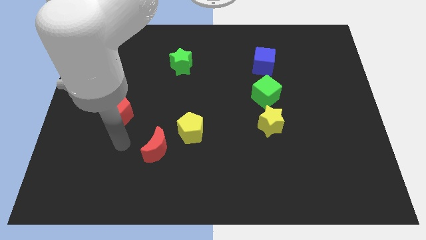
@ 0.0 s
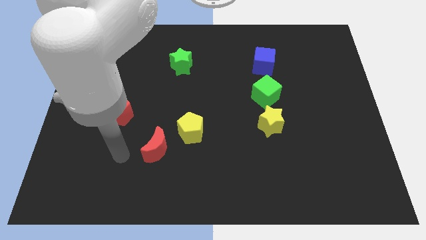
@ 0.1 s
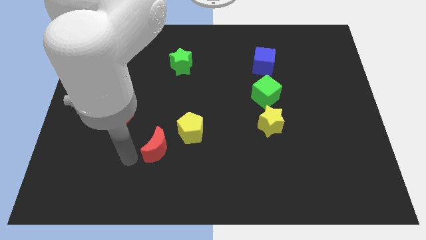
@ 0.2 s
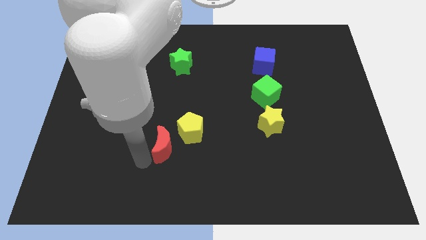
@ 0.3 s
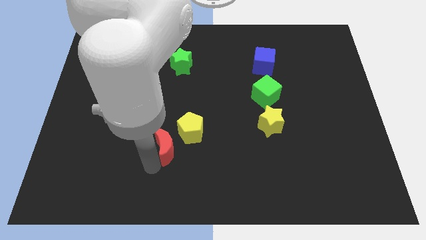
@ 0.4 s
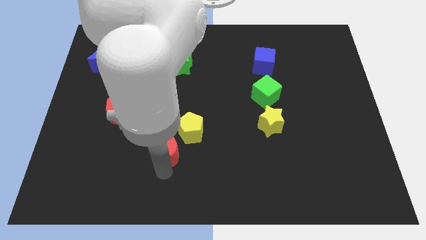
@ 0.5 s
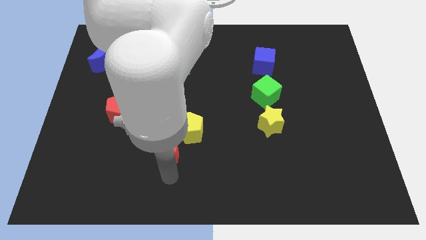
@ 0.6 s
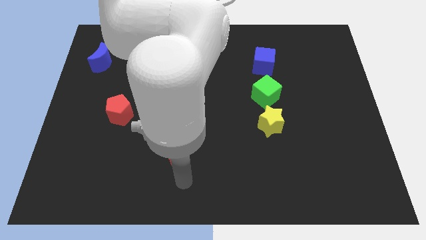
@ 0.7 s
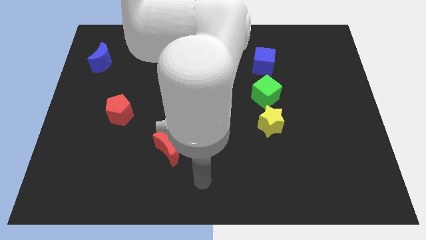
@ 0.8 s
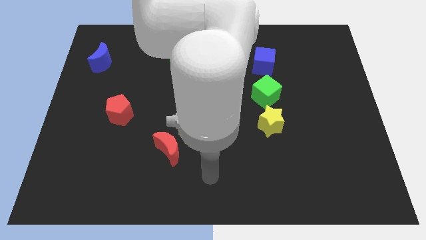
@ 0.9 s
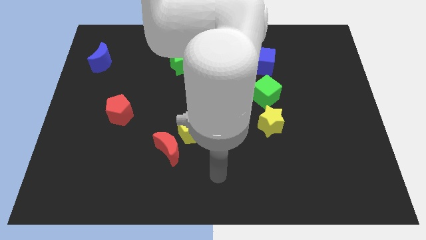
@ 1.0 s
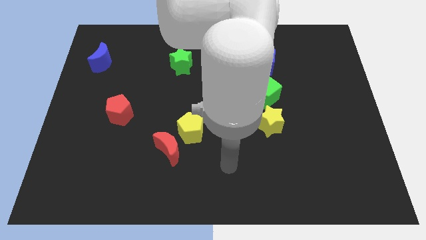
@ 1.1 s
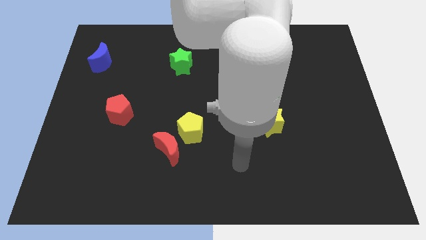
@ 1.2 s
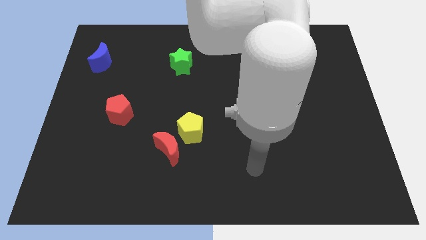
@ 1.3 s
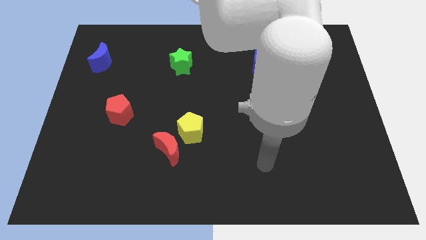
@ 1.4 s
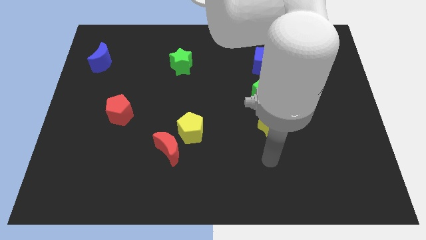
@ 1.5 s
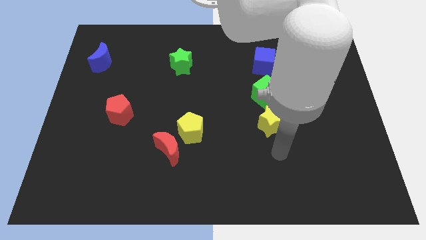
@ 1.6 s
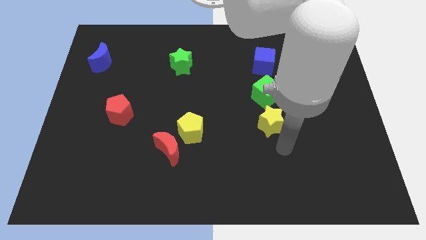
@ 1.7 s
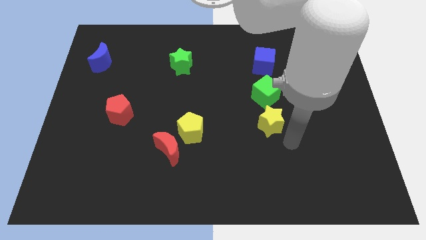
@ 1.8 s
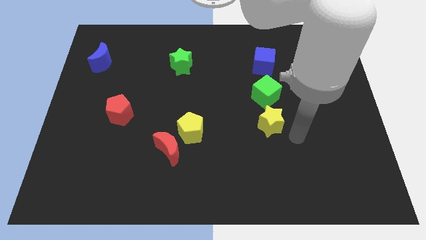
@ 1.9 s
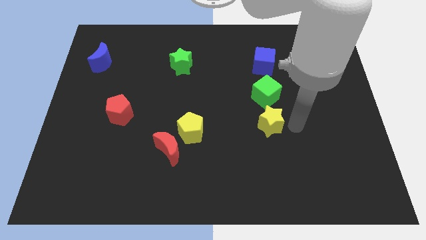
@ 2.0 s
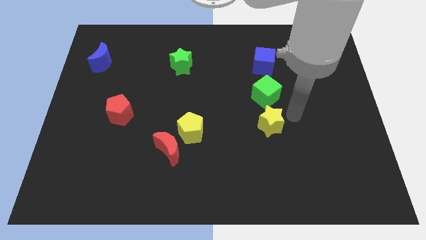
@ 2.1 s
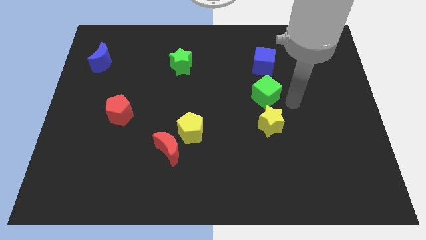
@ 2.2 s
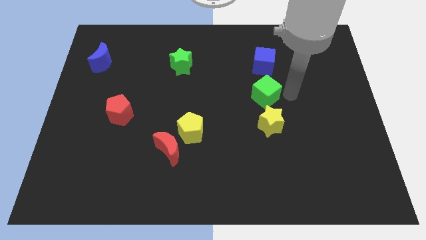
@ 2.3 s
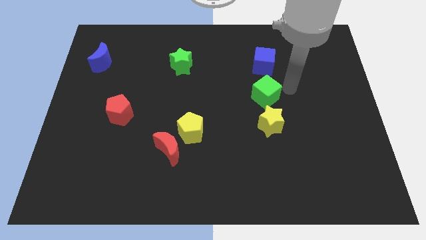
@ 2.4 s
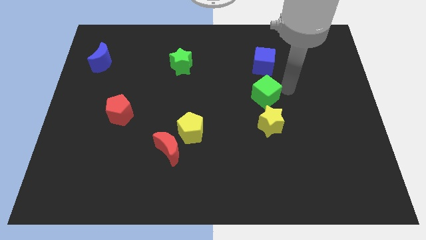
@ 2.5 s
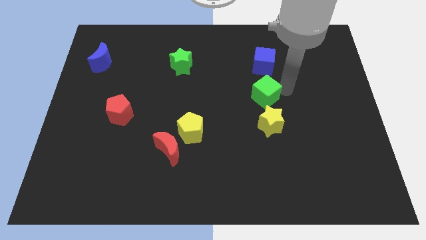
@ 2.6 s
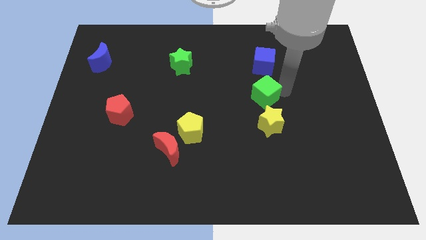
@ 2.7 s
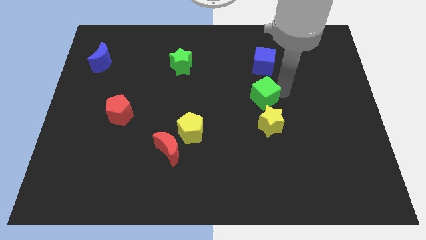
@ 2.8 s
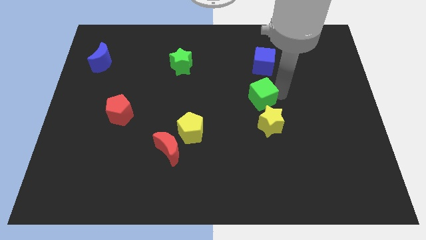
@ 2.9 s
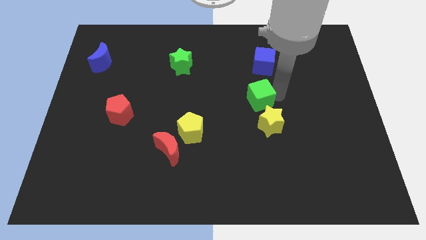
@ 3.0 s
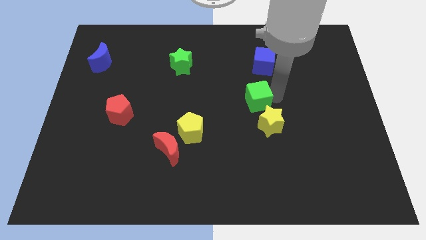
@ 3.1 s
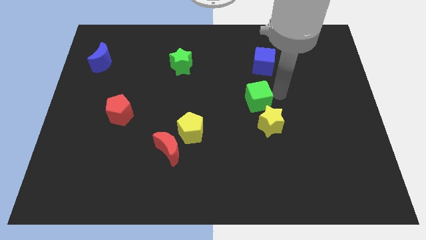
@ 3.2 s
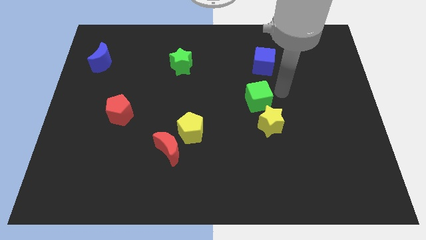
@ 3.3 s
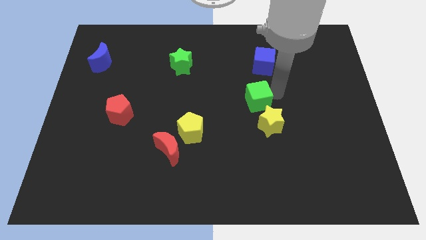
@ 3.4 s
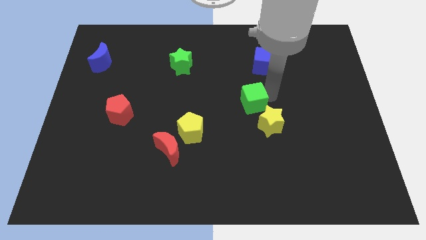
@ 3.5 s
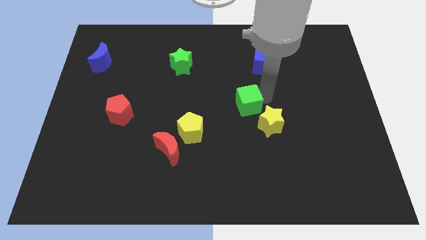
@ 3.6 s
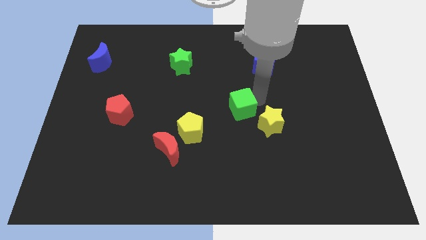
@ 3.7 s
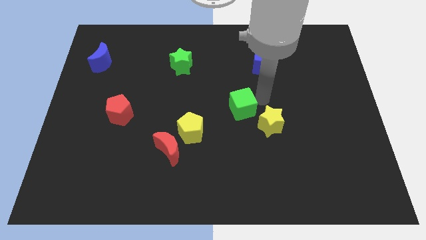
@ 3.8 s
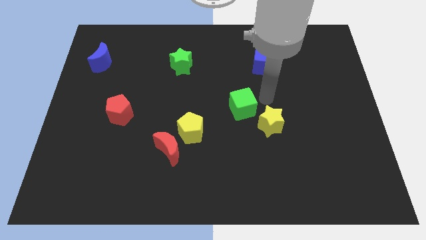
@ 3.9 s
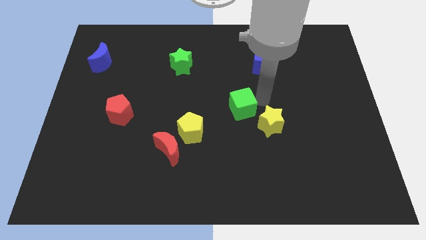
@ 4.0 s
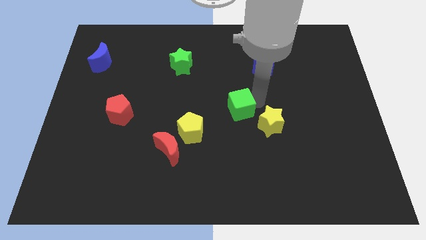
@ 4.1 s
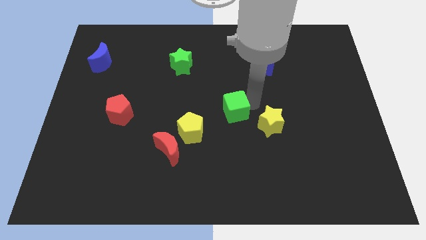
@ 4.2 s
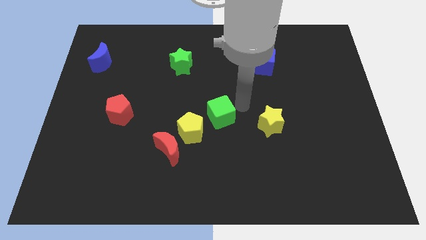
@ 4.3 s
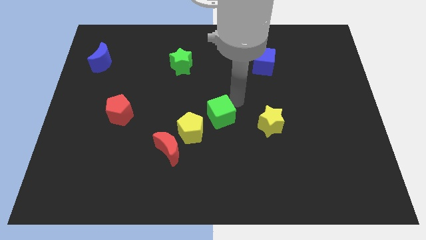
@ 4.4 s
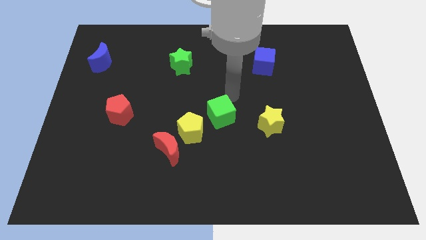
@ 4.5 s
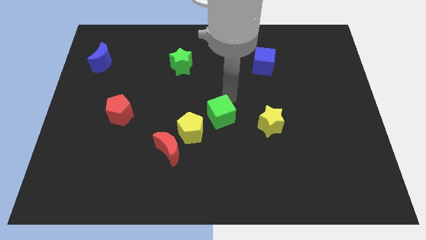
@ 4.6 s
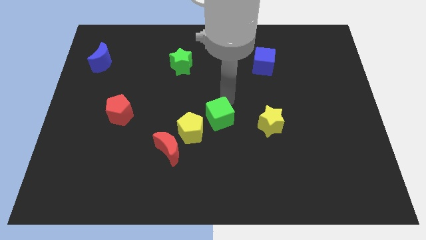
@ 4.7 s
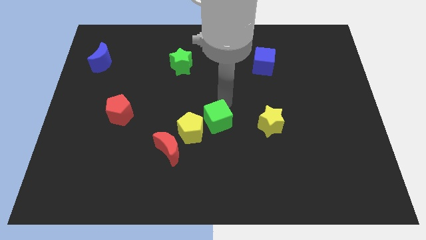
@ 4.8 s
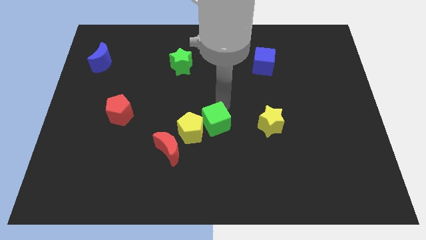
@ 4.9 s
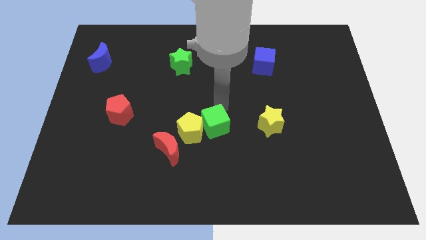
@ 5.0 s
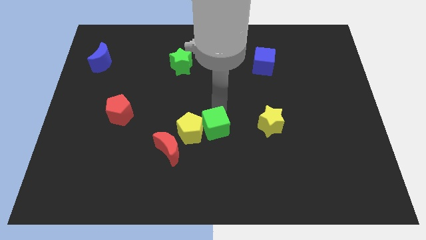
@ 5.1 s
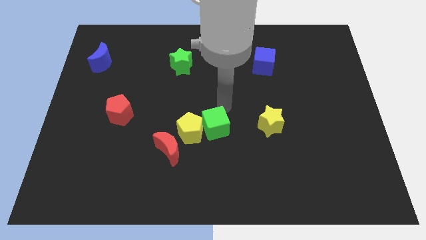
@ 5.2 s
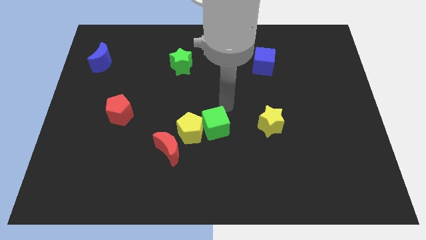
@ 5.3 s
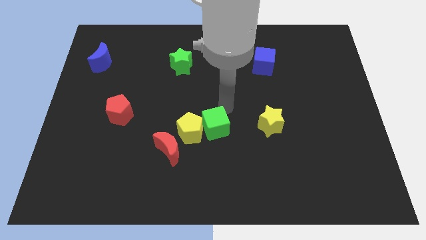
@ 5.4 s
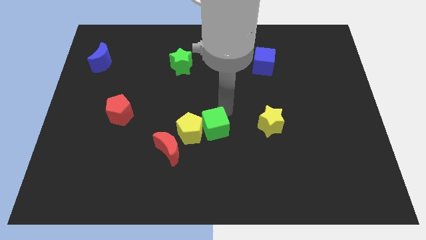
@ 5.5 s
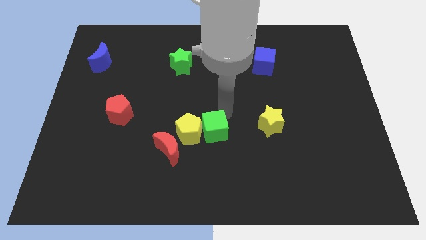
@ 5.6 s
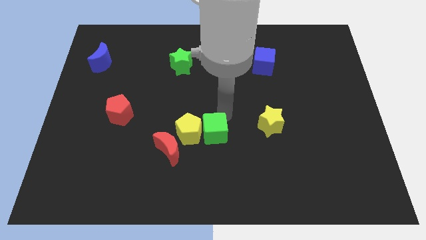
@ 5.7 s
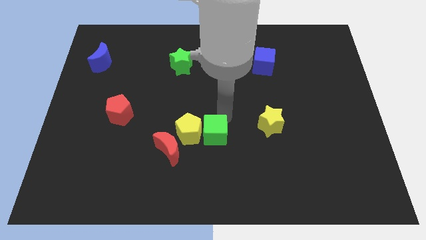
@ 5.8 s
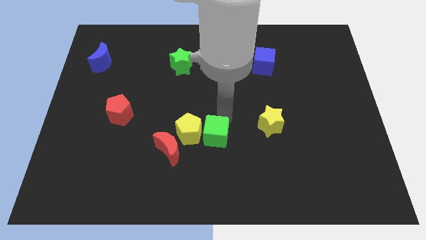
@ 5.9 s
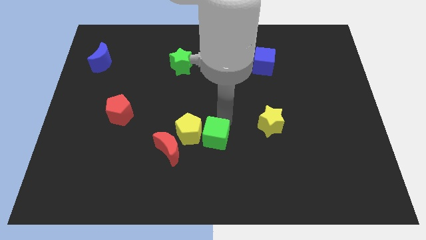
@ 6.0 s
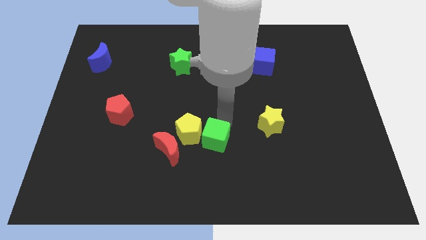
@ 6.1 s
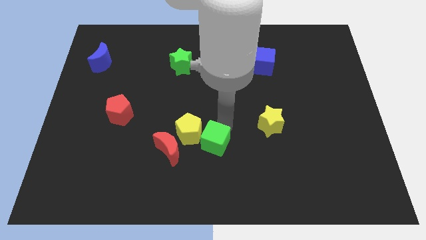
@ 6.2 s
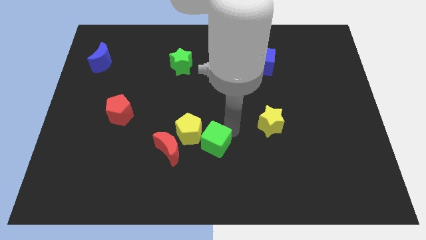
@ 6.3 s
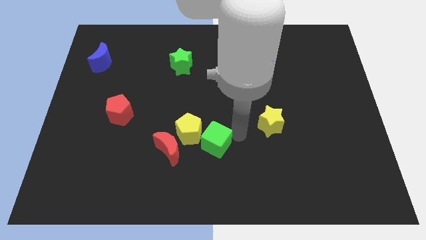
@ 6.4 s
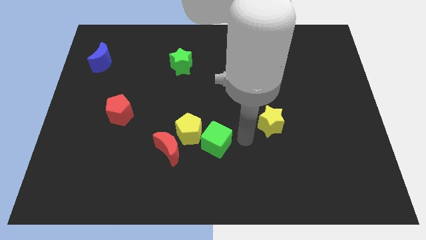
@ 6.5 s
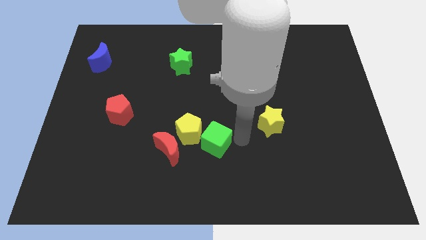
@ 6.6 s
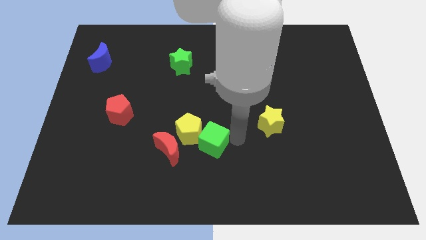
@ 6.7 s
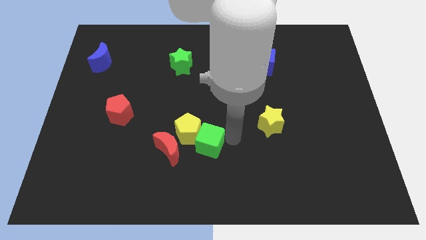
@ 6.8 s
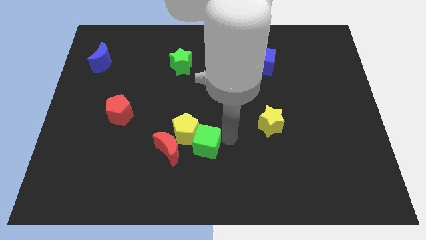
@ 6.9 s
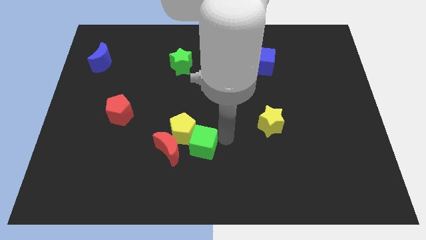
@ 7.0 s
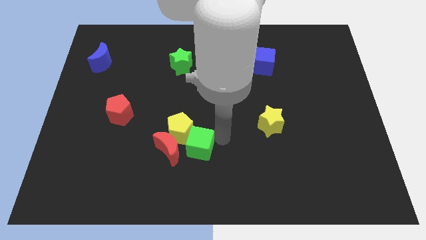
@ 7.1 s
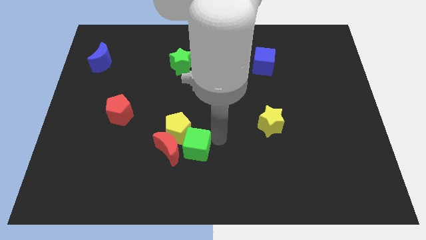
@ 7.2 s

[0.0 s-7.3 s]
move the green cube to the red moon

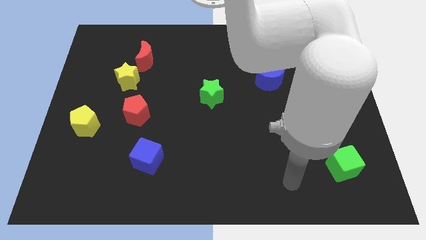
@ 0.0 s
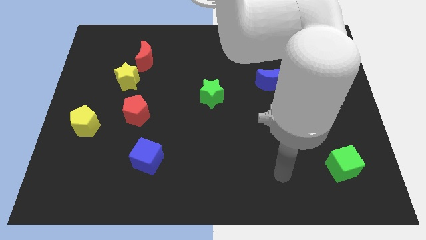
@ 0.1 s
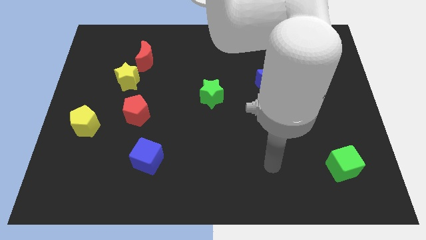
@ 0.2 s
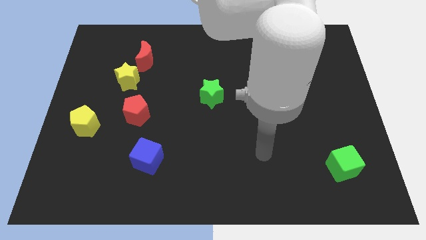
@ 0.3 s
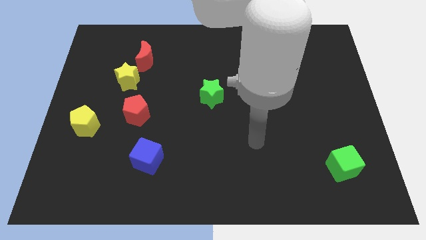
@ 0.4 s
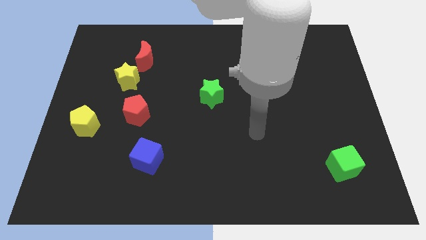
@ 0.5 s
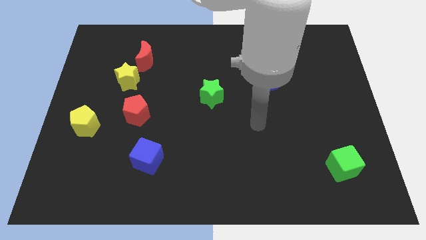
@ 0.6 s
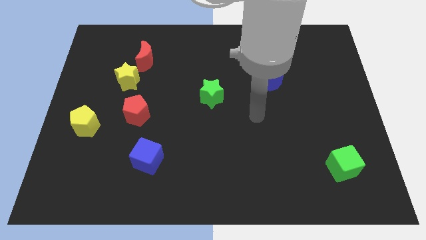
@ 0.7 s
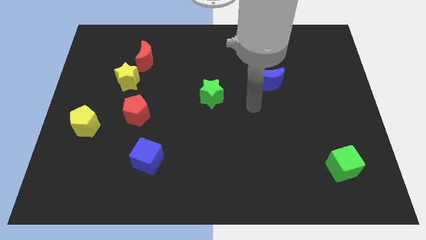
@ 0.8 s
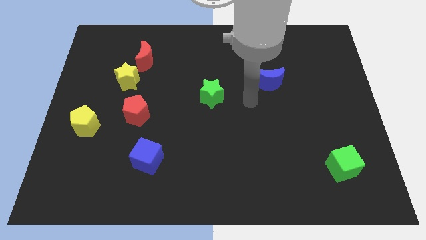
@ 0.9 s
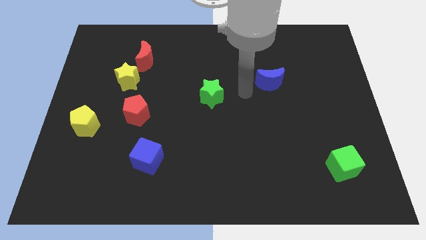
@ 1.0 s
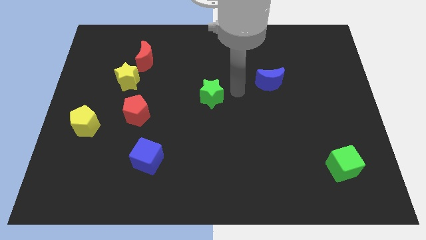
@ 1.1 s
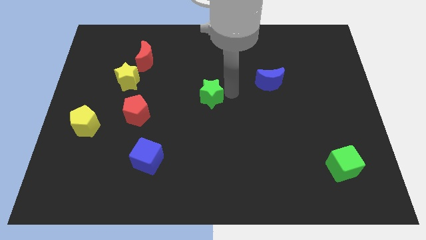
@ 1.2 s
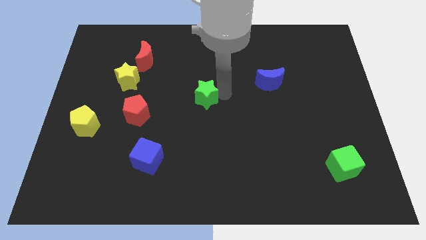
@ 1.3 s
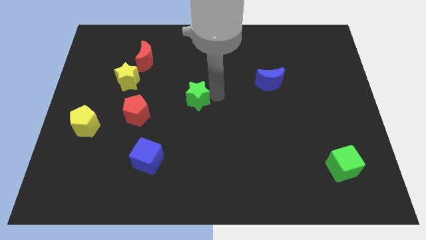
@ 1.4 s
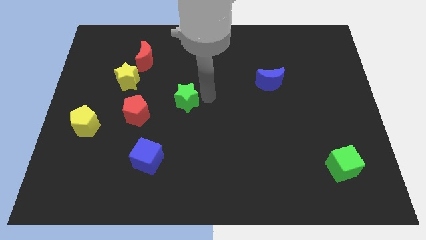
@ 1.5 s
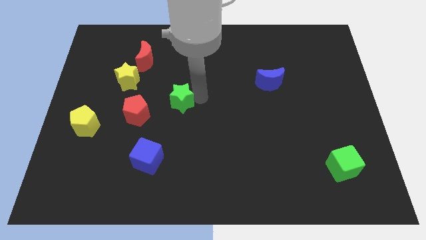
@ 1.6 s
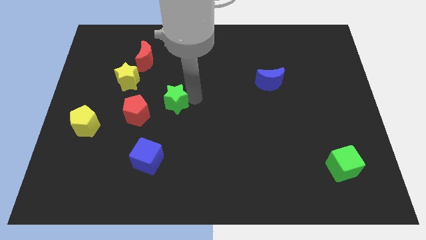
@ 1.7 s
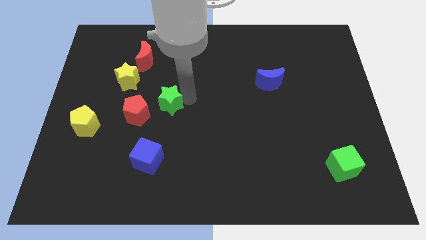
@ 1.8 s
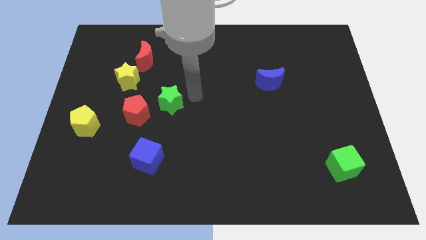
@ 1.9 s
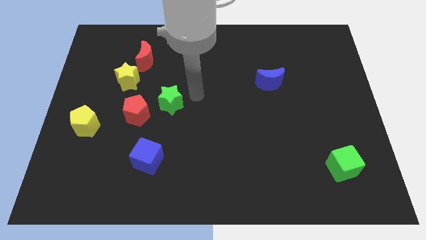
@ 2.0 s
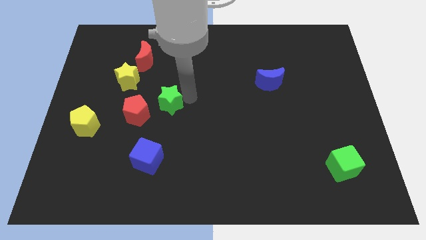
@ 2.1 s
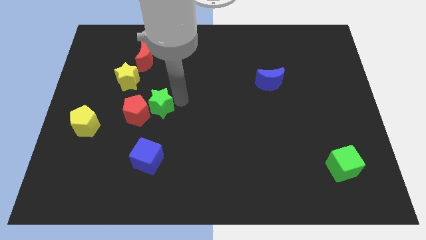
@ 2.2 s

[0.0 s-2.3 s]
slide the green star next to the red pentagon
